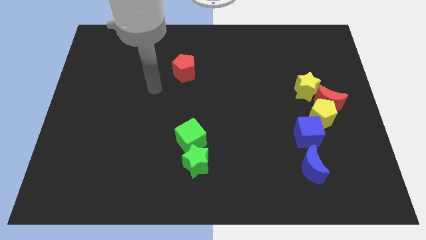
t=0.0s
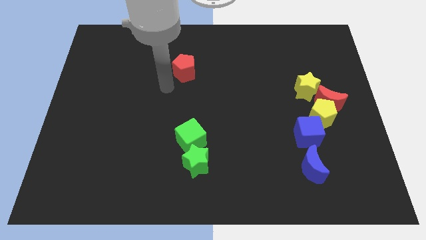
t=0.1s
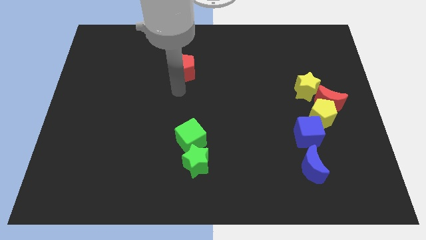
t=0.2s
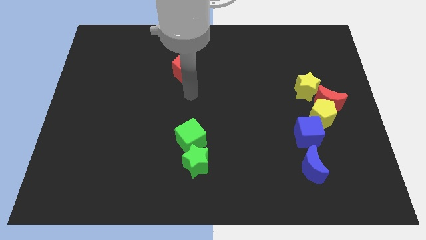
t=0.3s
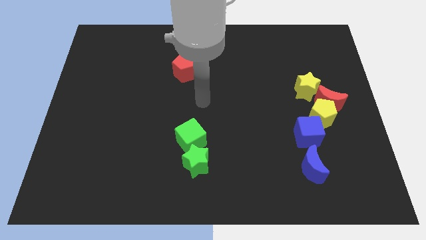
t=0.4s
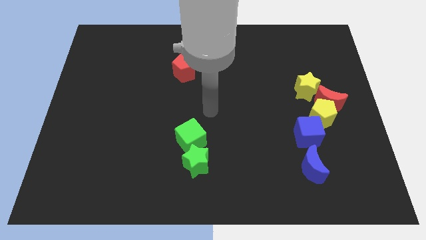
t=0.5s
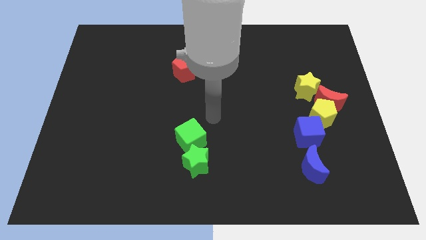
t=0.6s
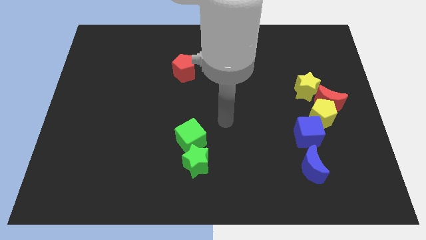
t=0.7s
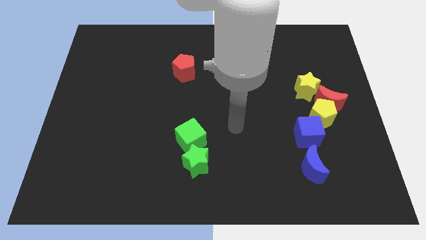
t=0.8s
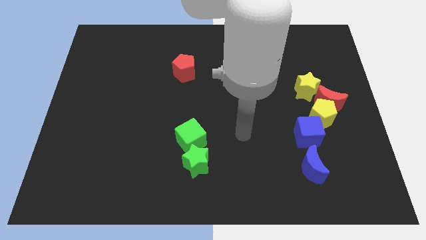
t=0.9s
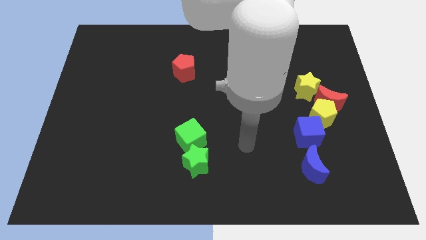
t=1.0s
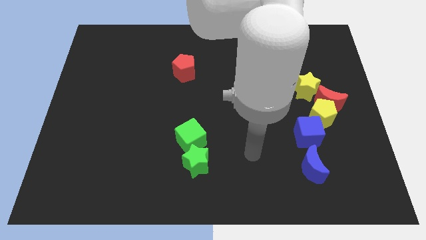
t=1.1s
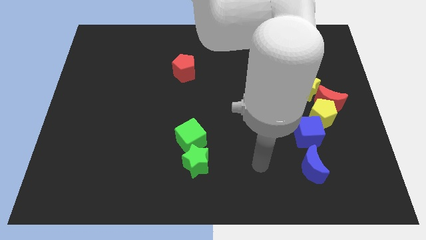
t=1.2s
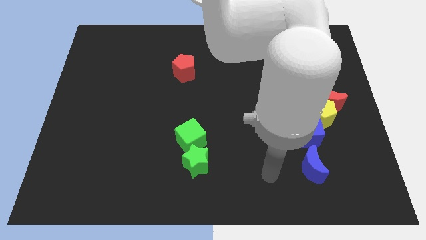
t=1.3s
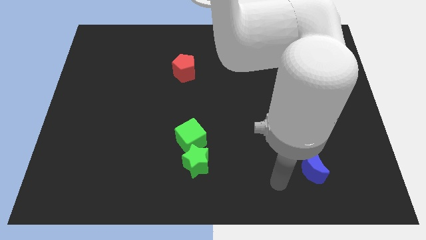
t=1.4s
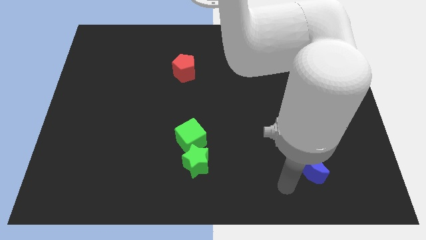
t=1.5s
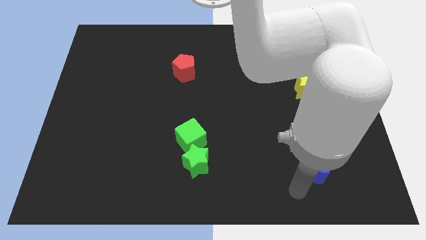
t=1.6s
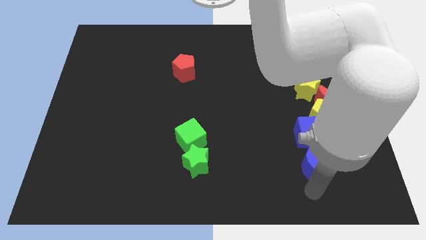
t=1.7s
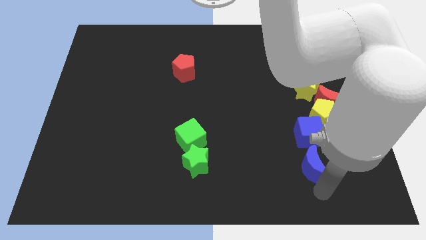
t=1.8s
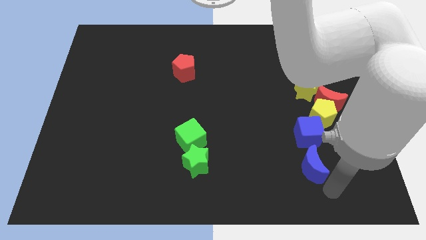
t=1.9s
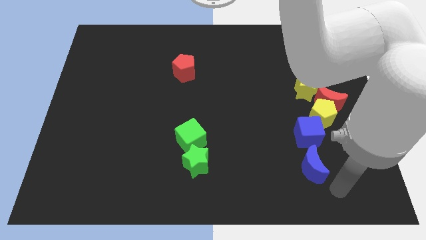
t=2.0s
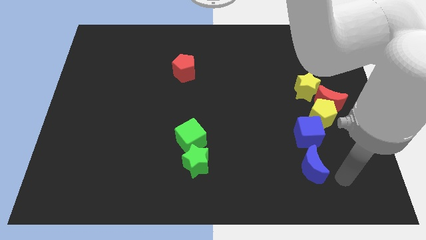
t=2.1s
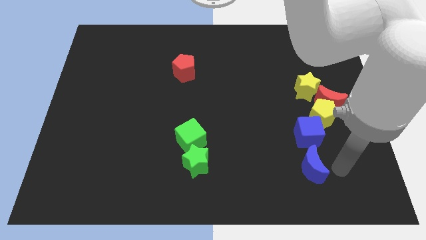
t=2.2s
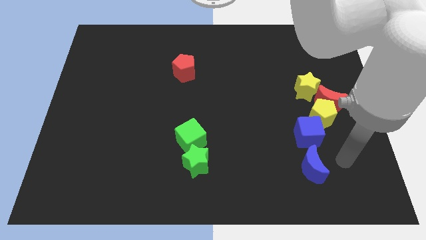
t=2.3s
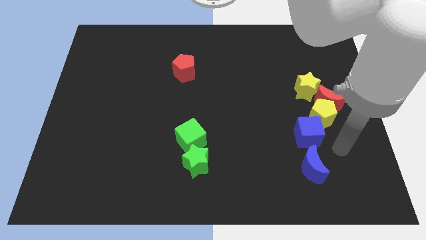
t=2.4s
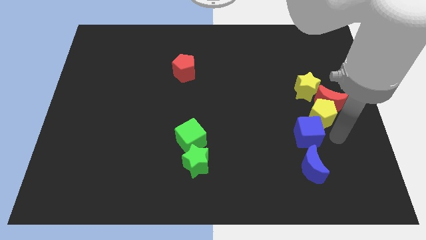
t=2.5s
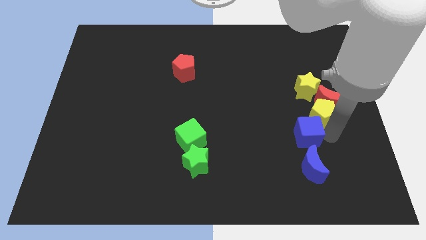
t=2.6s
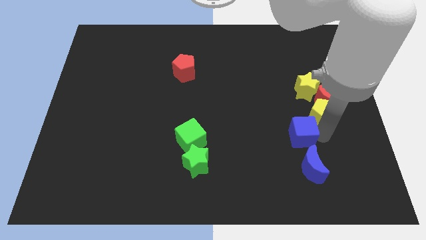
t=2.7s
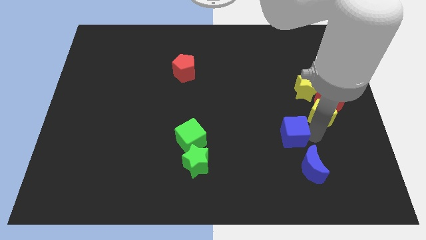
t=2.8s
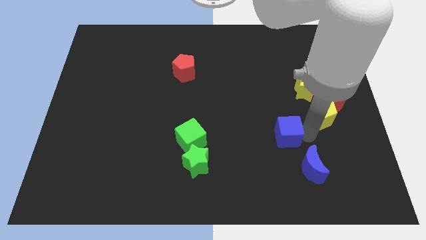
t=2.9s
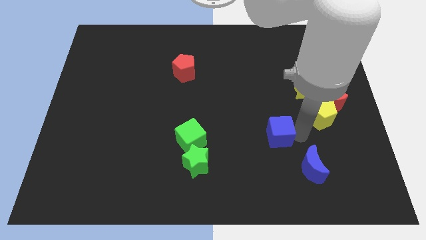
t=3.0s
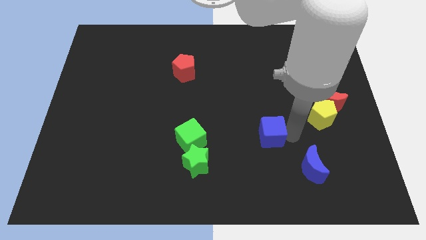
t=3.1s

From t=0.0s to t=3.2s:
move the blue cube slightly left

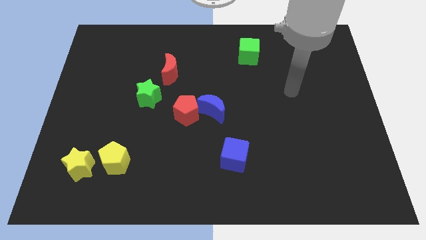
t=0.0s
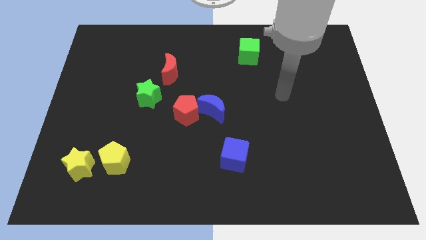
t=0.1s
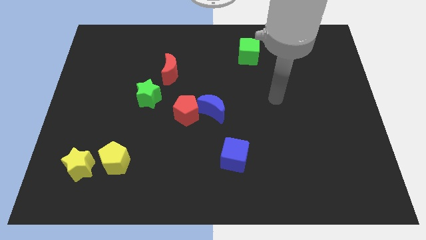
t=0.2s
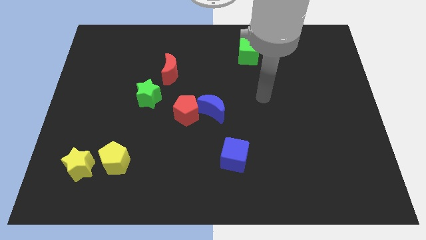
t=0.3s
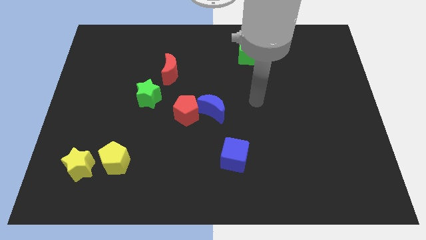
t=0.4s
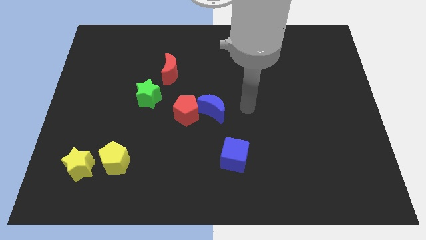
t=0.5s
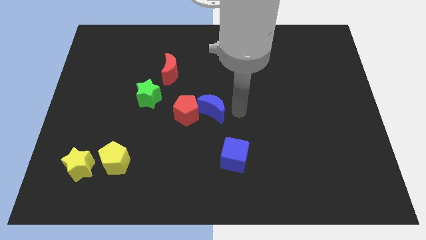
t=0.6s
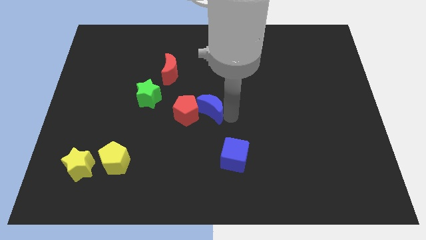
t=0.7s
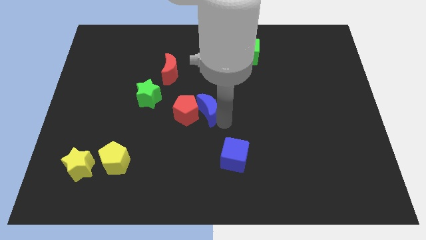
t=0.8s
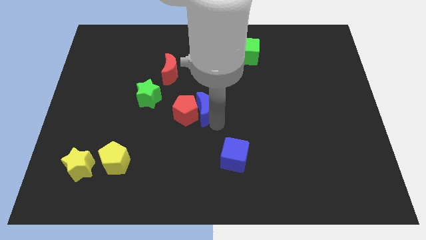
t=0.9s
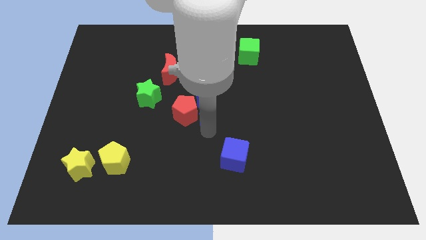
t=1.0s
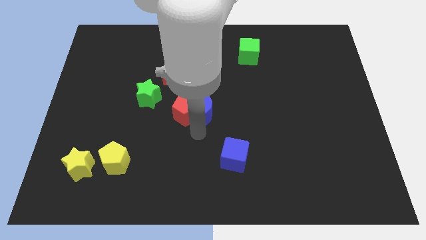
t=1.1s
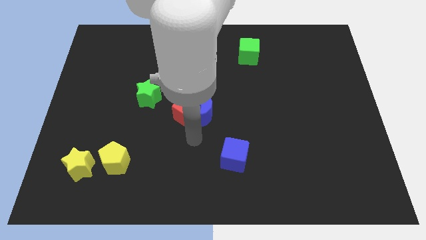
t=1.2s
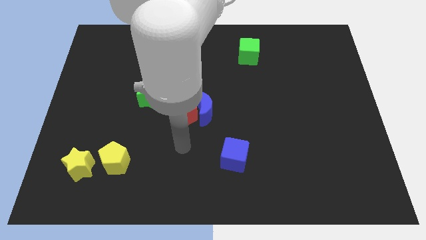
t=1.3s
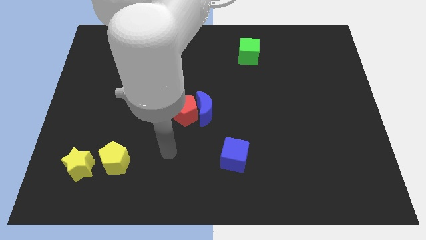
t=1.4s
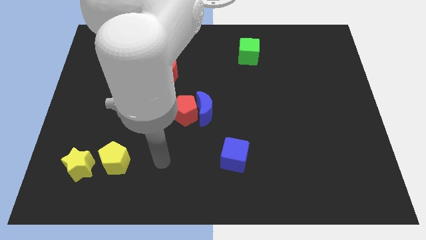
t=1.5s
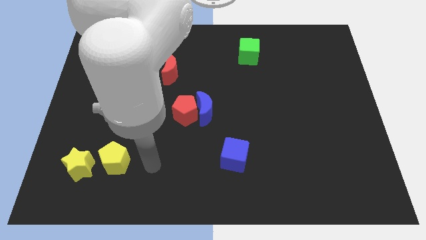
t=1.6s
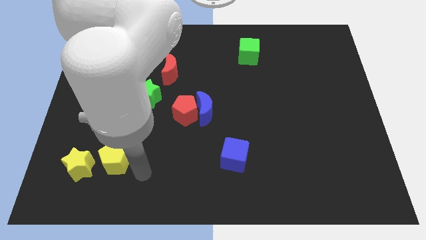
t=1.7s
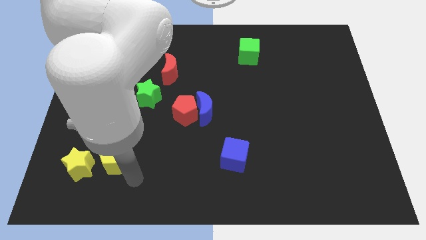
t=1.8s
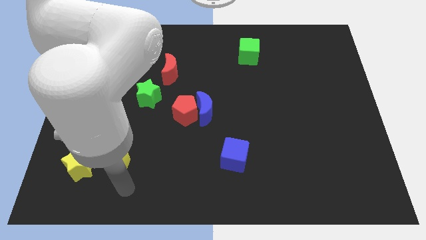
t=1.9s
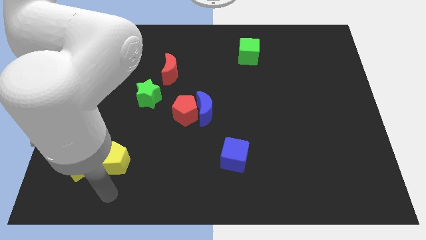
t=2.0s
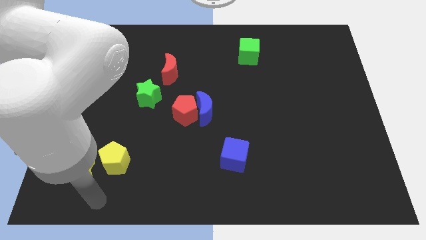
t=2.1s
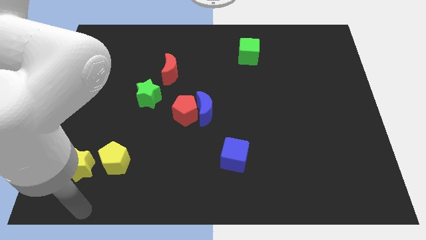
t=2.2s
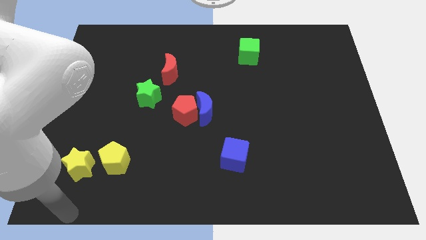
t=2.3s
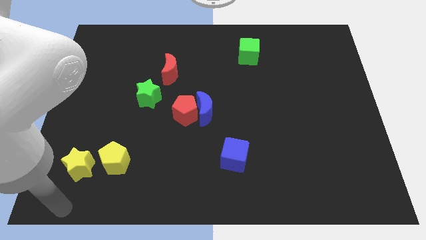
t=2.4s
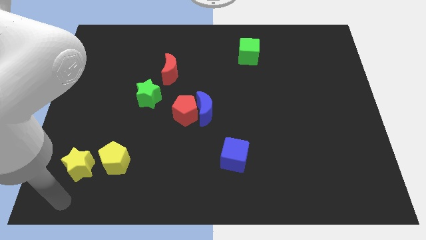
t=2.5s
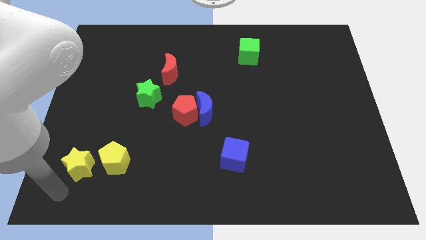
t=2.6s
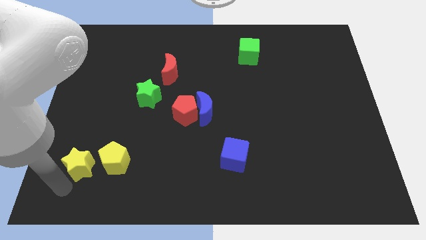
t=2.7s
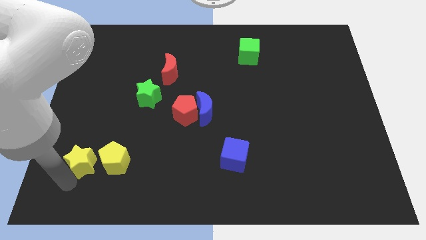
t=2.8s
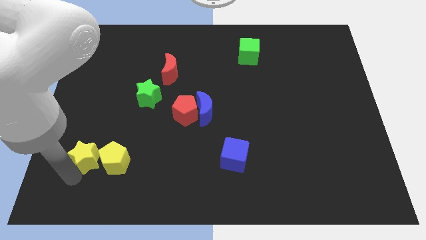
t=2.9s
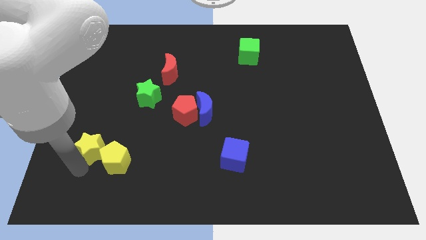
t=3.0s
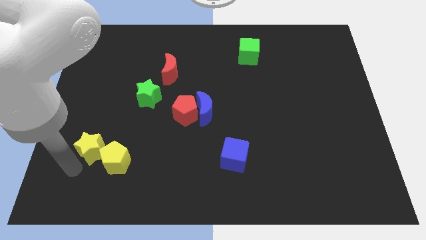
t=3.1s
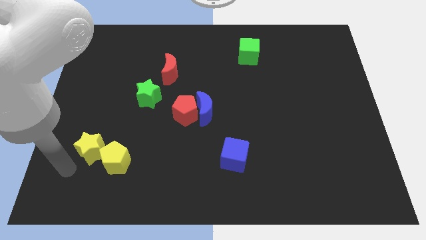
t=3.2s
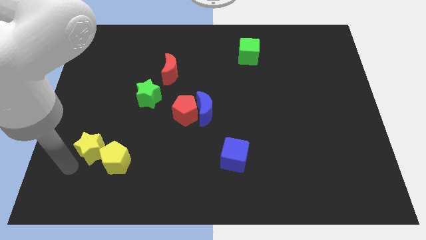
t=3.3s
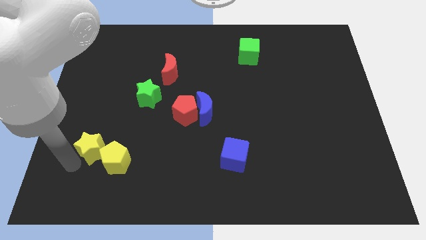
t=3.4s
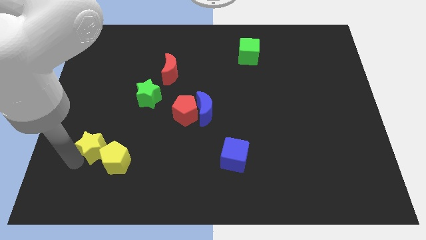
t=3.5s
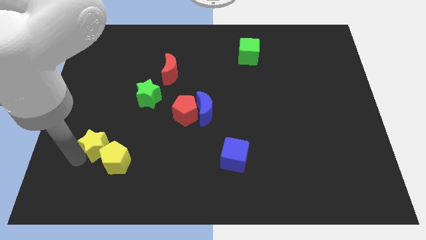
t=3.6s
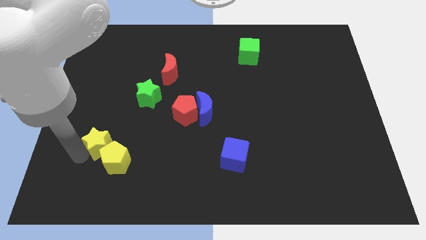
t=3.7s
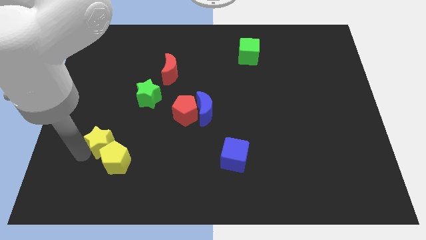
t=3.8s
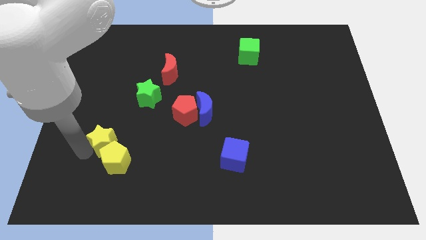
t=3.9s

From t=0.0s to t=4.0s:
move the yellow star upwards and right slightly

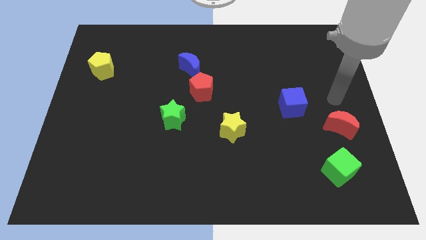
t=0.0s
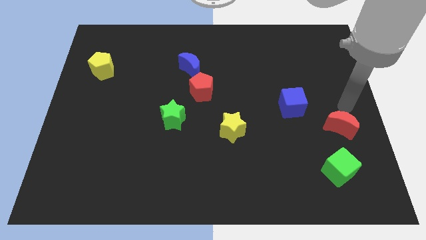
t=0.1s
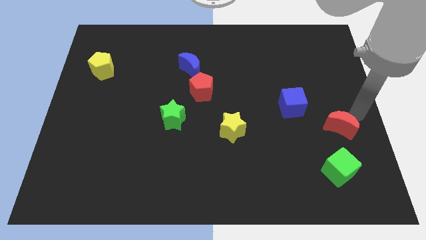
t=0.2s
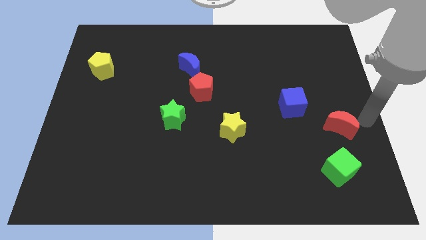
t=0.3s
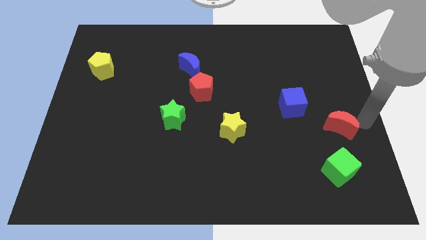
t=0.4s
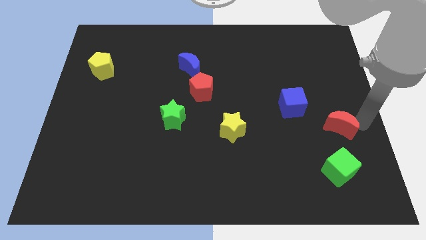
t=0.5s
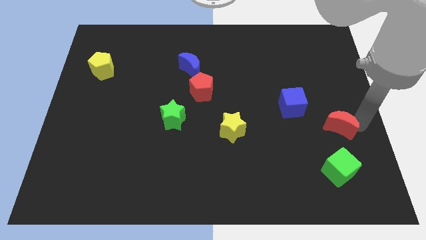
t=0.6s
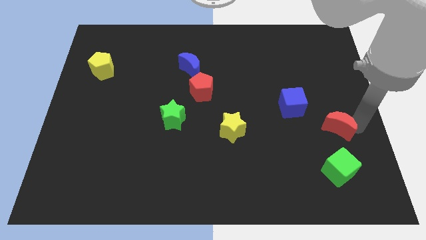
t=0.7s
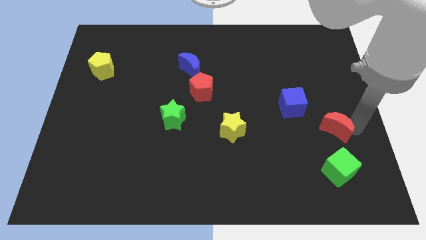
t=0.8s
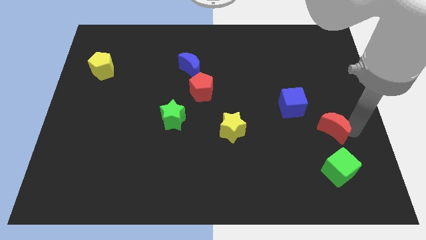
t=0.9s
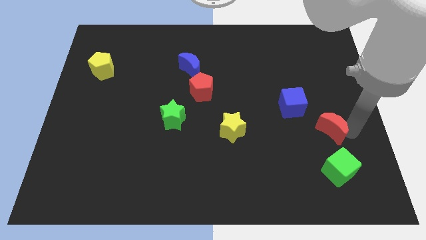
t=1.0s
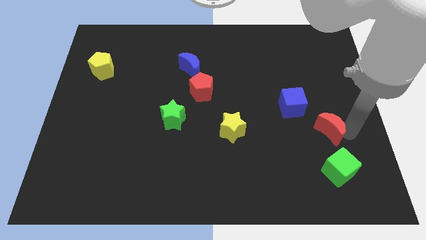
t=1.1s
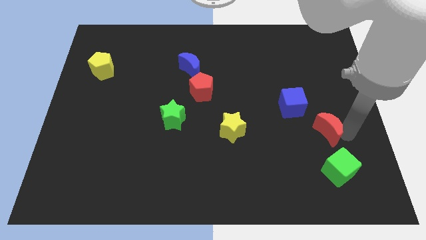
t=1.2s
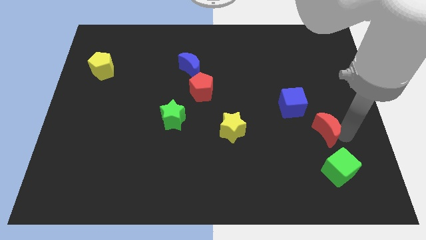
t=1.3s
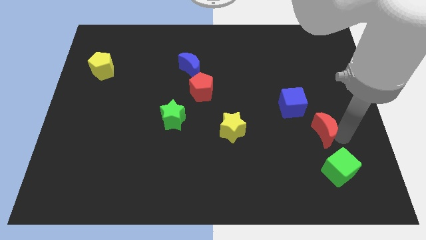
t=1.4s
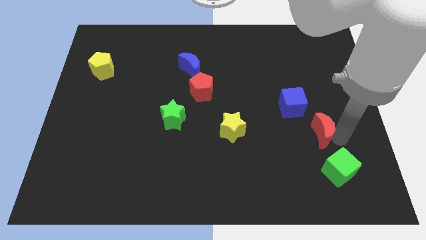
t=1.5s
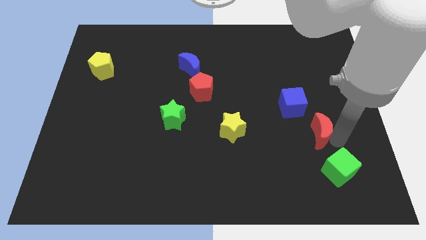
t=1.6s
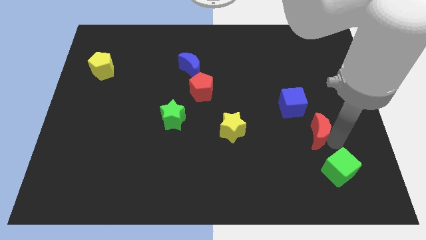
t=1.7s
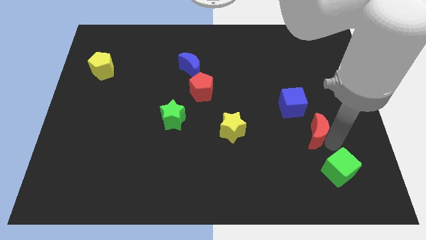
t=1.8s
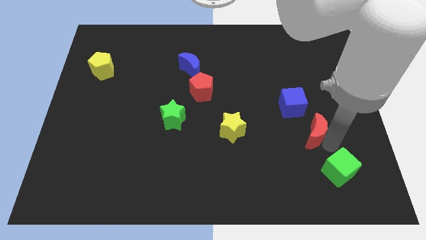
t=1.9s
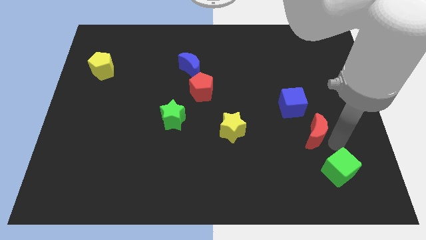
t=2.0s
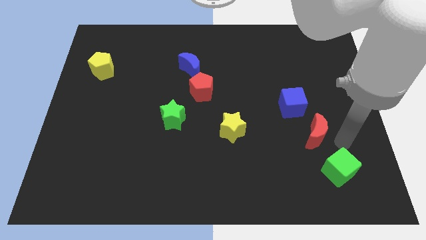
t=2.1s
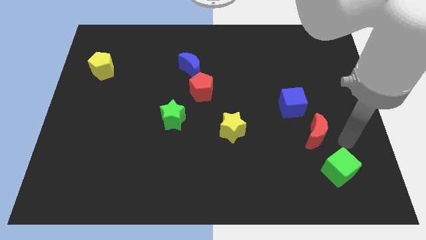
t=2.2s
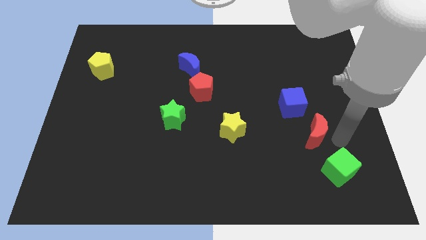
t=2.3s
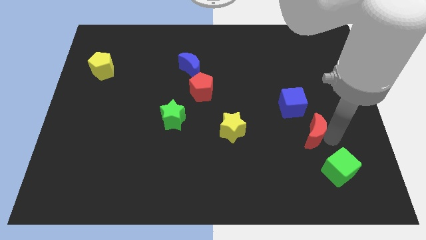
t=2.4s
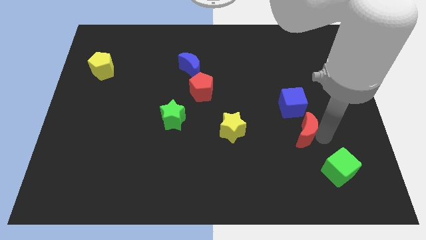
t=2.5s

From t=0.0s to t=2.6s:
push the red moon a little left
